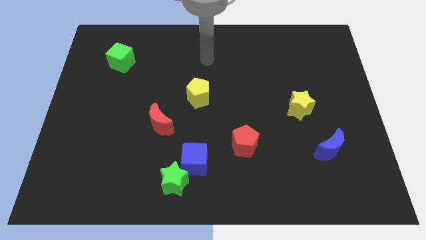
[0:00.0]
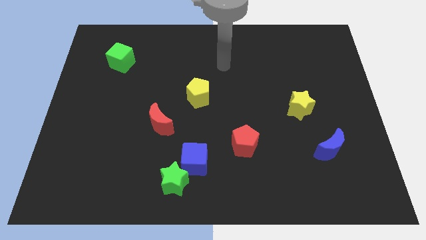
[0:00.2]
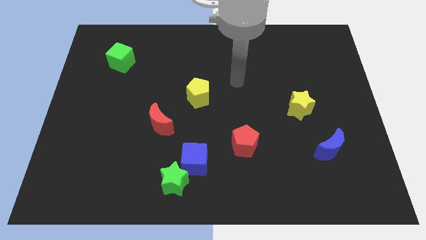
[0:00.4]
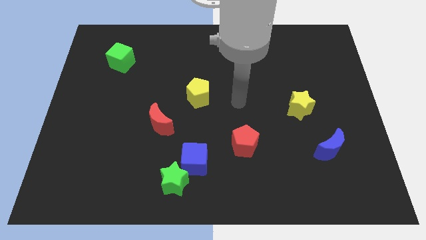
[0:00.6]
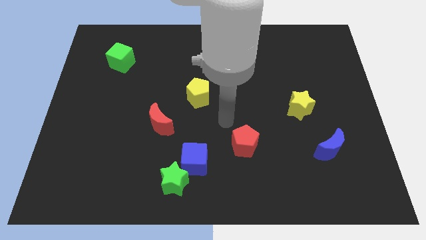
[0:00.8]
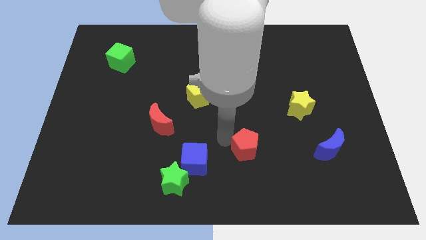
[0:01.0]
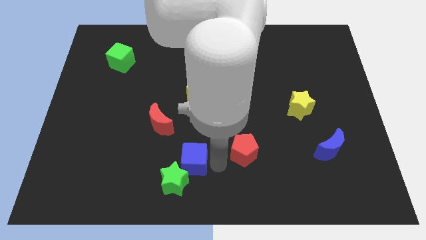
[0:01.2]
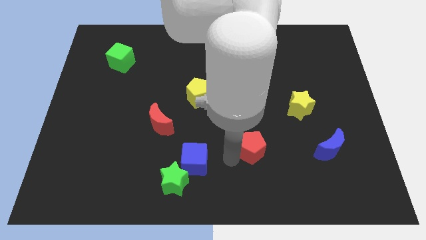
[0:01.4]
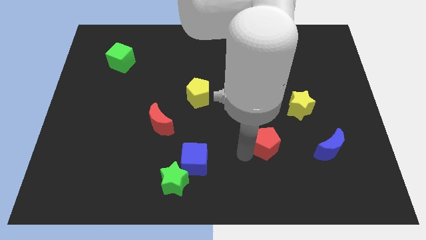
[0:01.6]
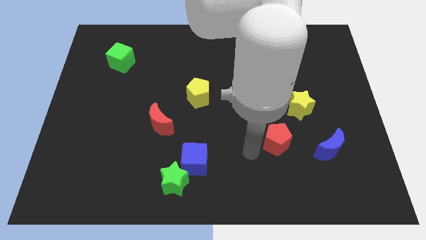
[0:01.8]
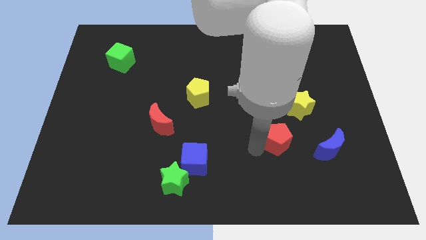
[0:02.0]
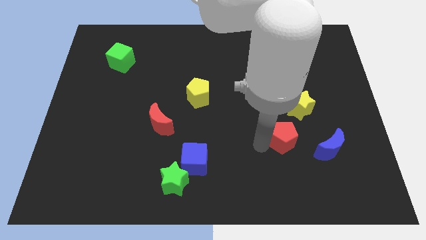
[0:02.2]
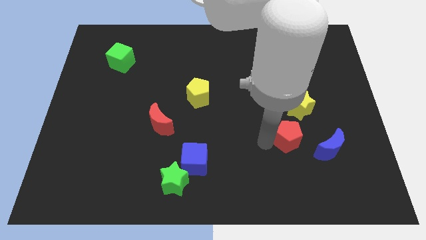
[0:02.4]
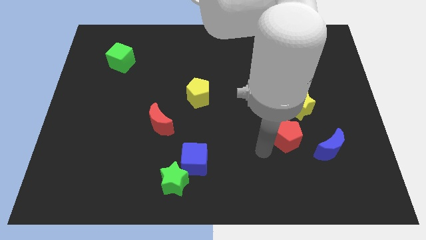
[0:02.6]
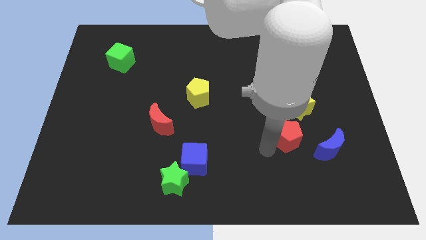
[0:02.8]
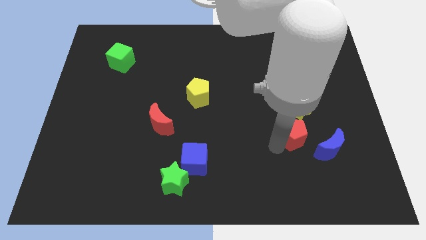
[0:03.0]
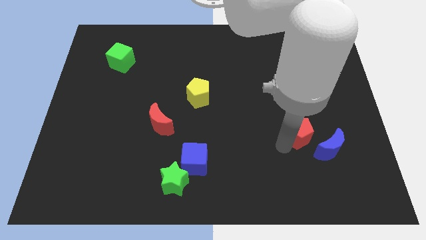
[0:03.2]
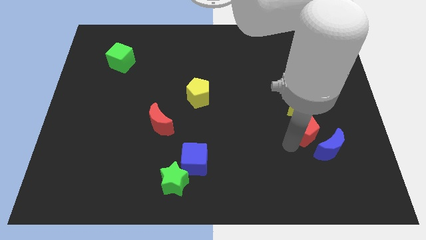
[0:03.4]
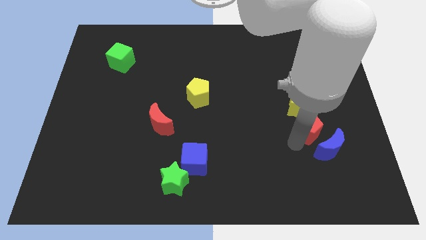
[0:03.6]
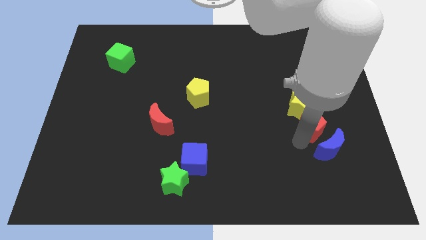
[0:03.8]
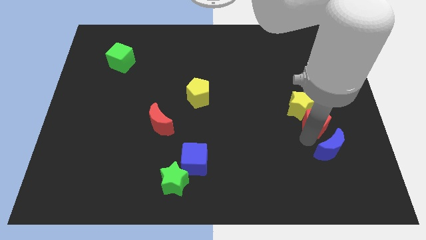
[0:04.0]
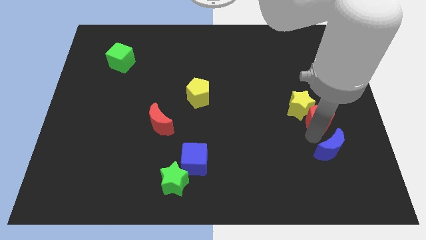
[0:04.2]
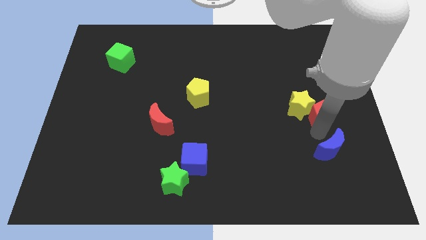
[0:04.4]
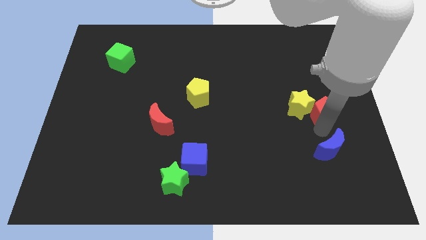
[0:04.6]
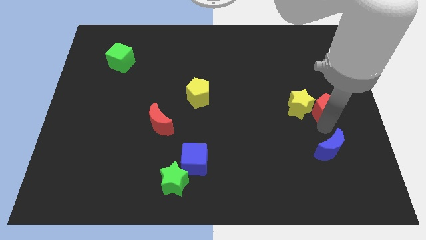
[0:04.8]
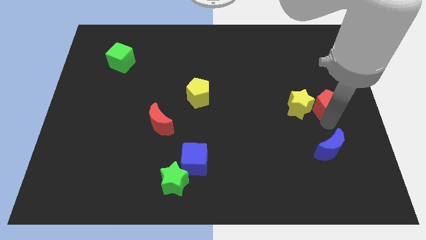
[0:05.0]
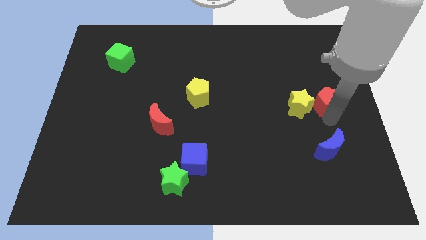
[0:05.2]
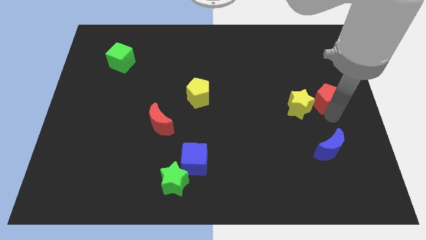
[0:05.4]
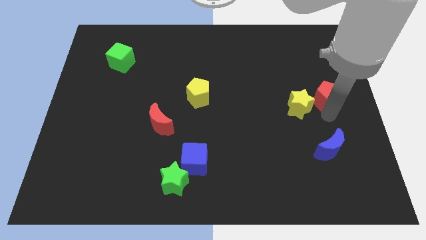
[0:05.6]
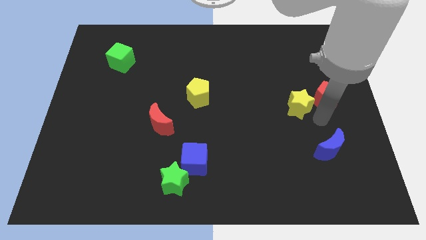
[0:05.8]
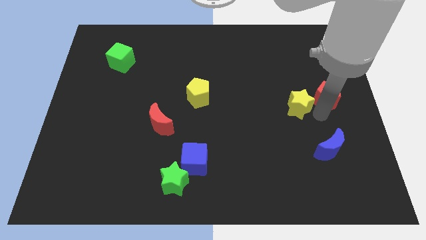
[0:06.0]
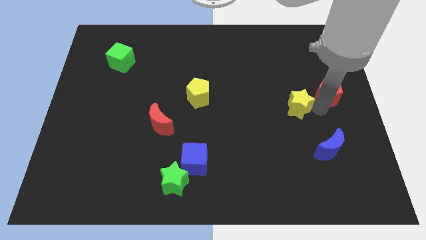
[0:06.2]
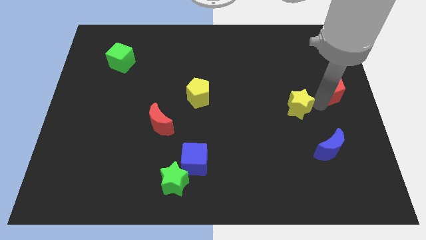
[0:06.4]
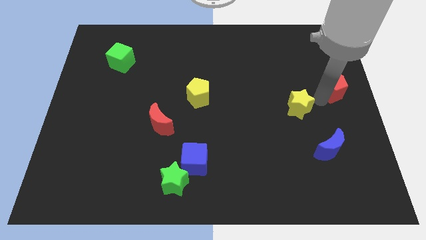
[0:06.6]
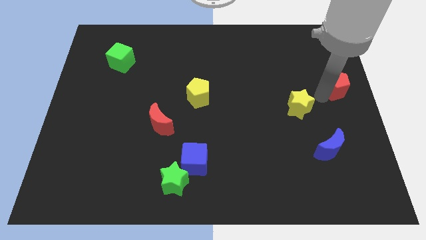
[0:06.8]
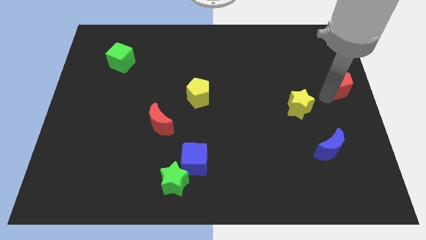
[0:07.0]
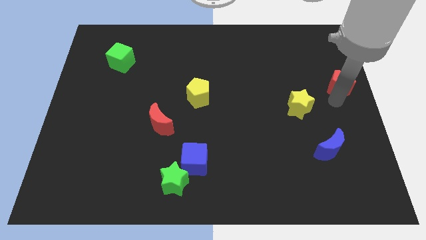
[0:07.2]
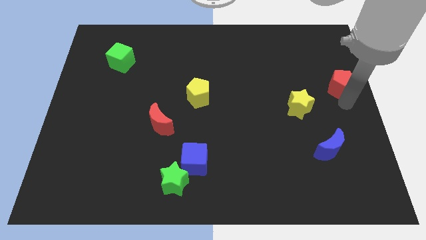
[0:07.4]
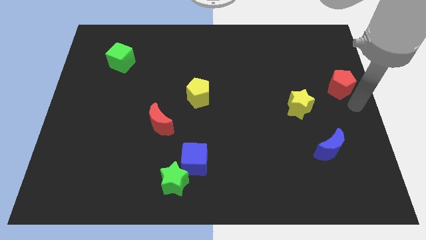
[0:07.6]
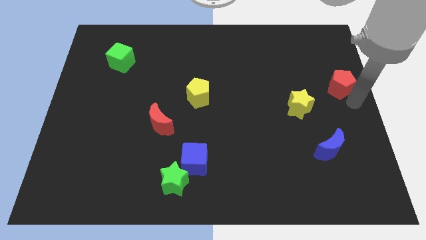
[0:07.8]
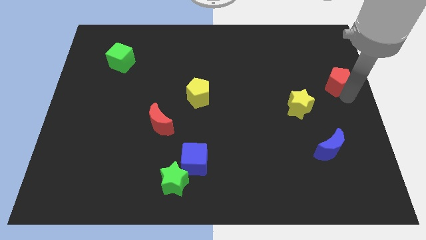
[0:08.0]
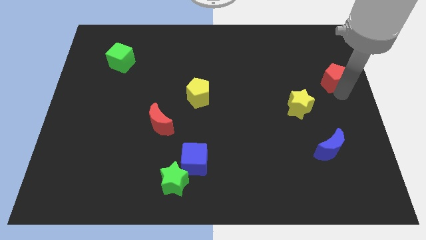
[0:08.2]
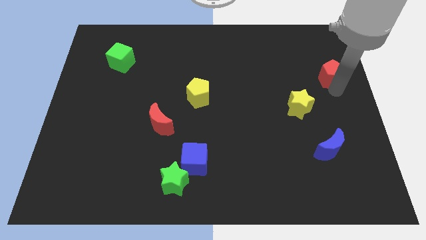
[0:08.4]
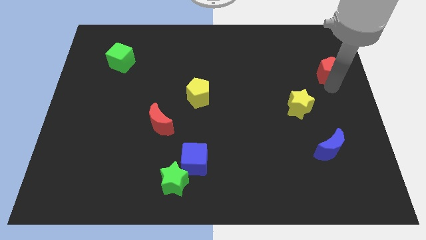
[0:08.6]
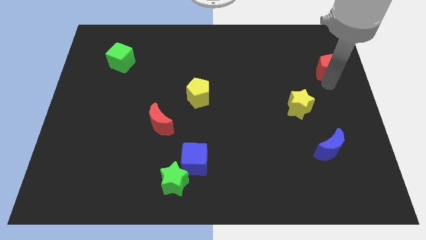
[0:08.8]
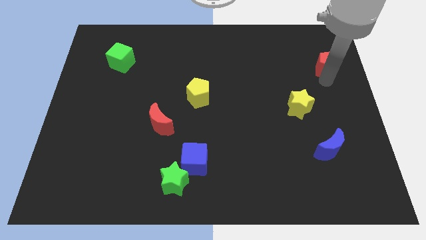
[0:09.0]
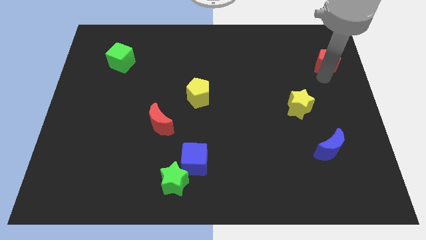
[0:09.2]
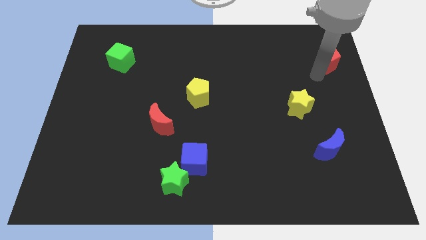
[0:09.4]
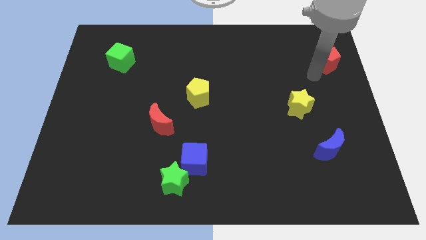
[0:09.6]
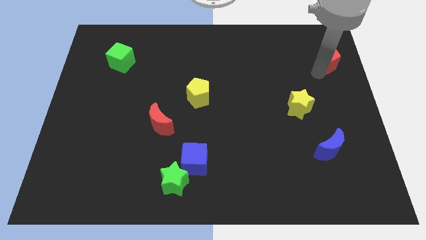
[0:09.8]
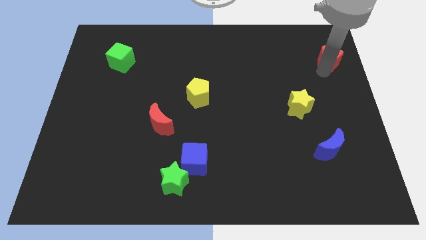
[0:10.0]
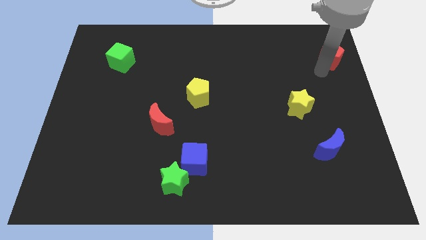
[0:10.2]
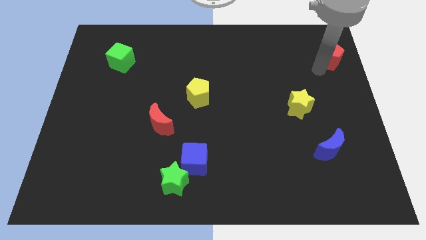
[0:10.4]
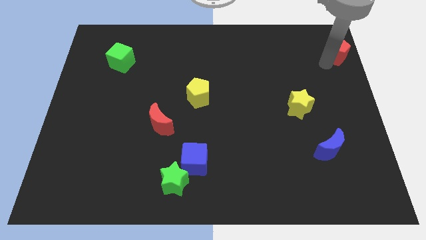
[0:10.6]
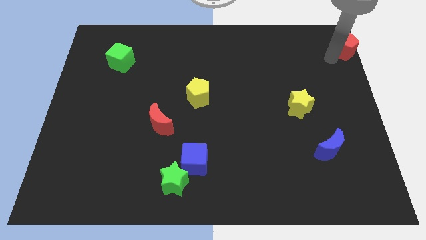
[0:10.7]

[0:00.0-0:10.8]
slide the red pentagon to the upper right corner

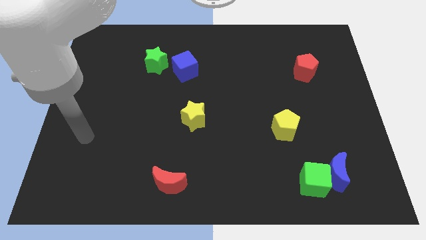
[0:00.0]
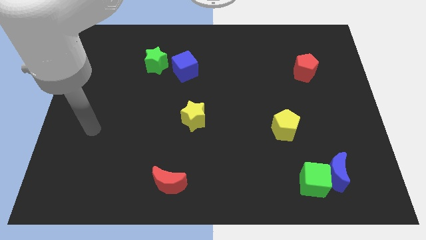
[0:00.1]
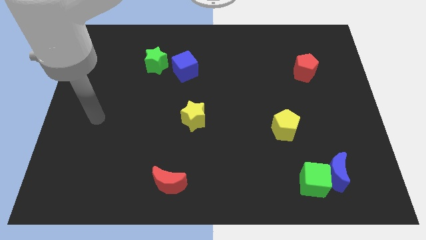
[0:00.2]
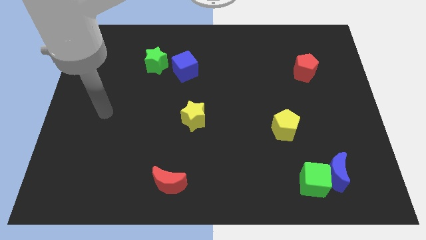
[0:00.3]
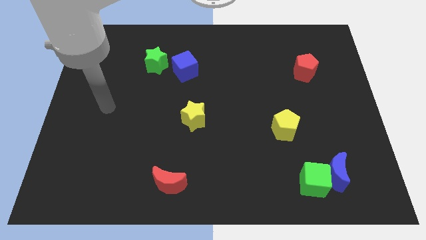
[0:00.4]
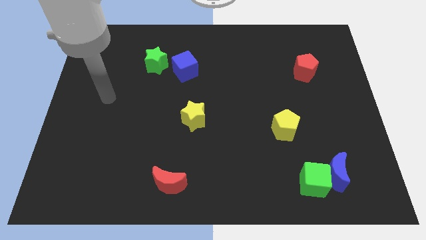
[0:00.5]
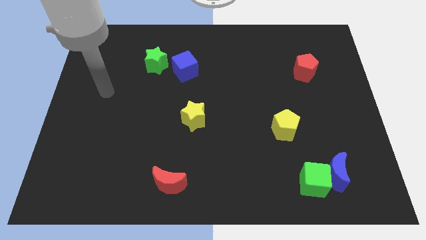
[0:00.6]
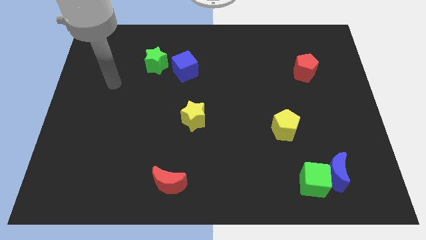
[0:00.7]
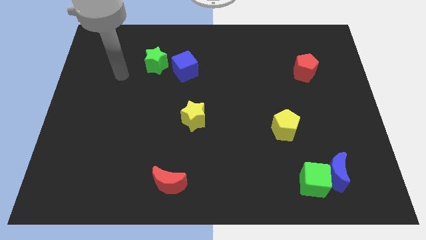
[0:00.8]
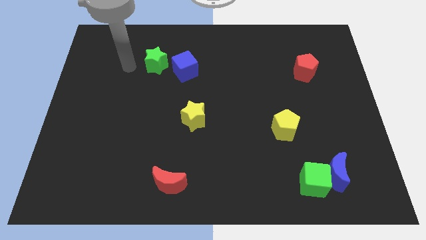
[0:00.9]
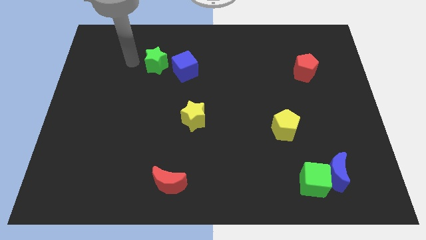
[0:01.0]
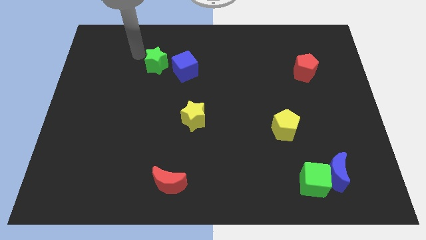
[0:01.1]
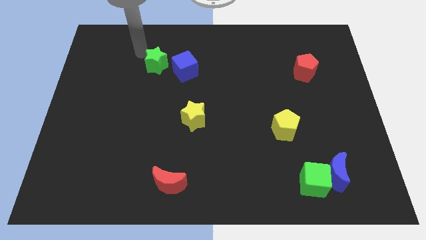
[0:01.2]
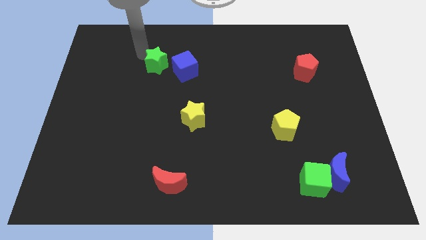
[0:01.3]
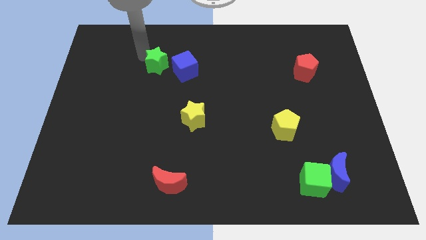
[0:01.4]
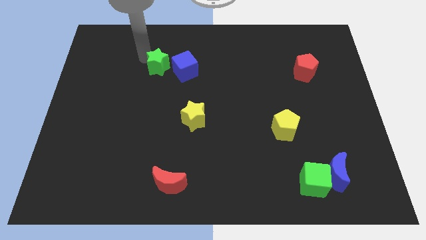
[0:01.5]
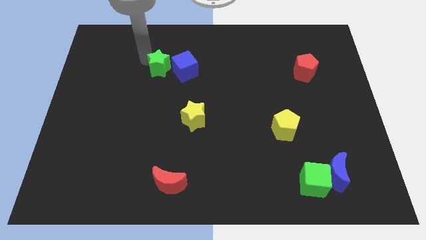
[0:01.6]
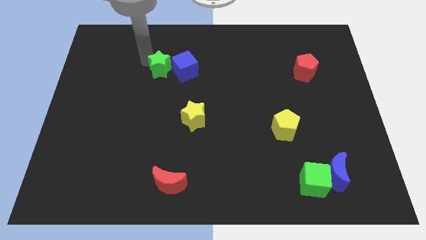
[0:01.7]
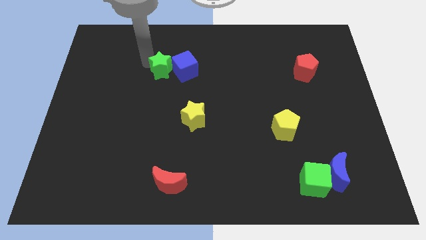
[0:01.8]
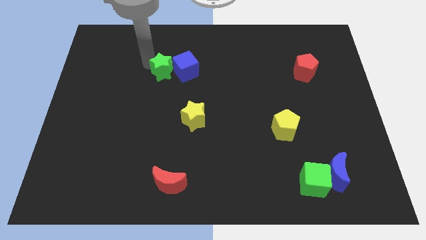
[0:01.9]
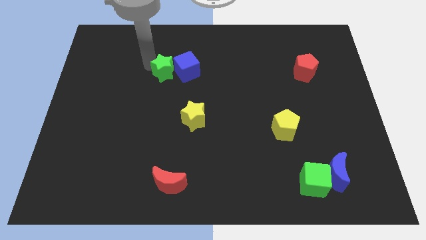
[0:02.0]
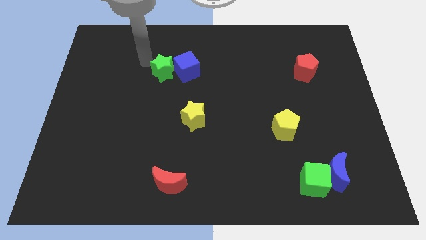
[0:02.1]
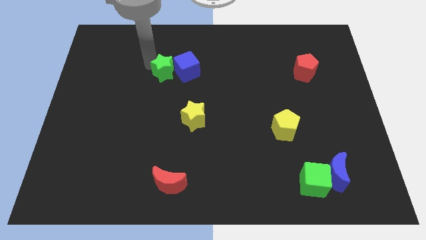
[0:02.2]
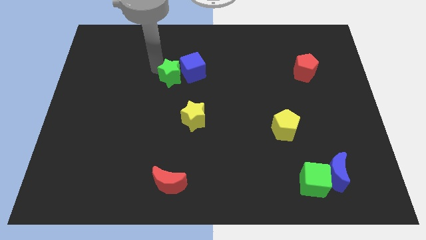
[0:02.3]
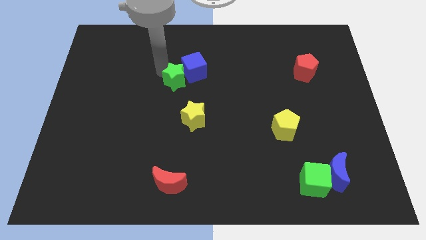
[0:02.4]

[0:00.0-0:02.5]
put the green star to the middle
